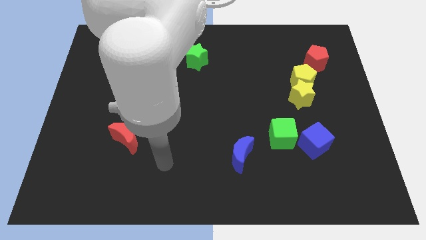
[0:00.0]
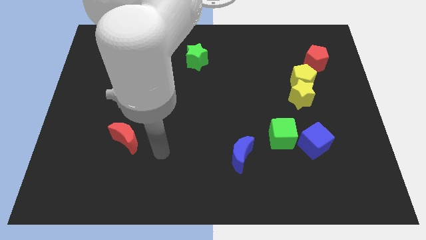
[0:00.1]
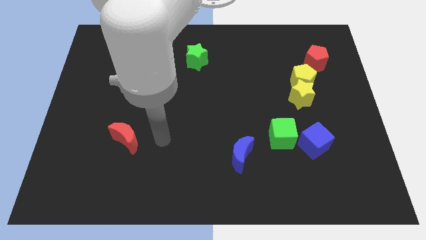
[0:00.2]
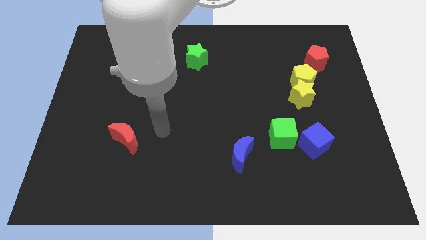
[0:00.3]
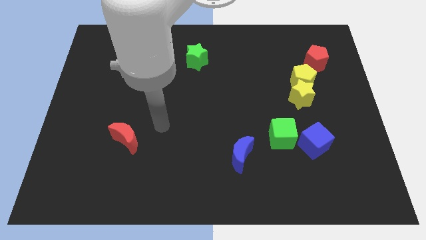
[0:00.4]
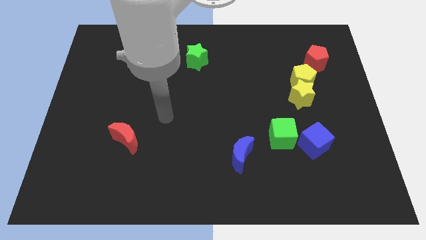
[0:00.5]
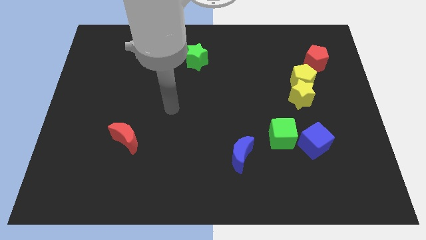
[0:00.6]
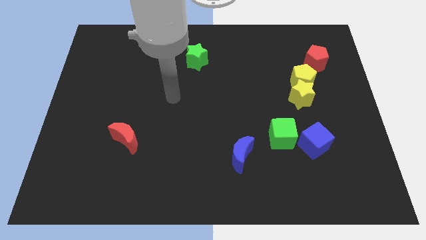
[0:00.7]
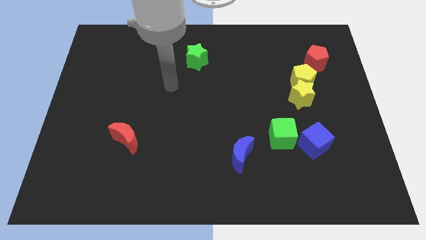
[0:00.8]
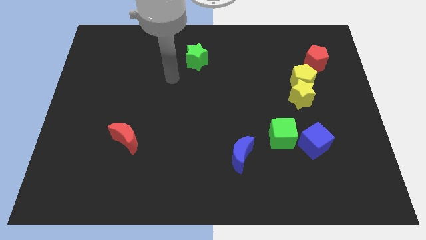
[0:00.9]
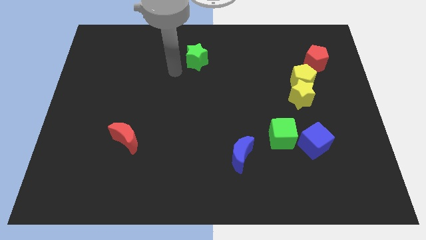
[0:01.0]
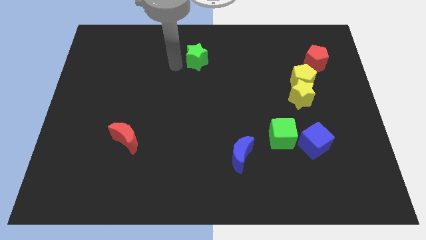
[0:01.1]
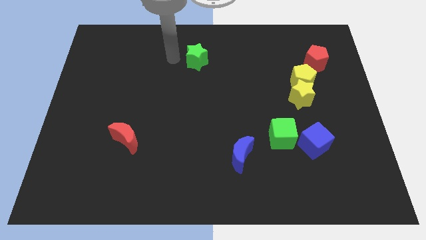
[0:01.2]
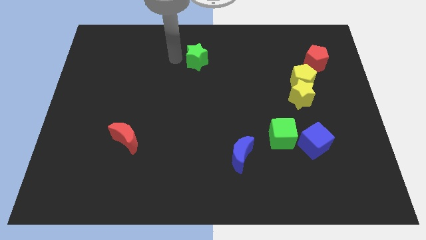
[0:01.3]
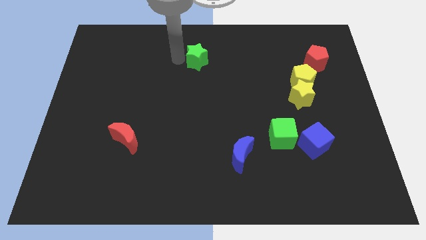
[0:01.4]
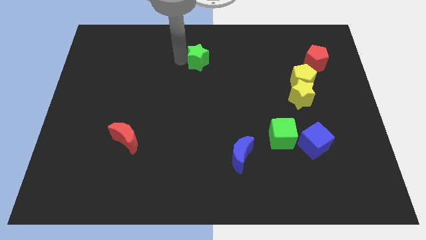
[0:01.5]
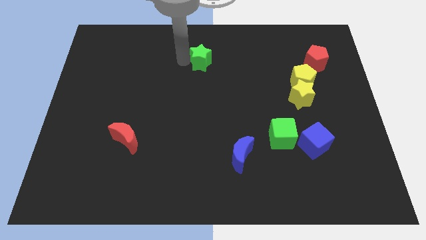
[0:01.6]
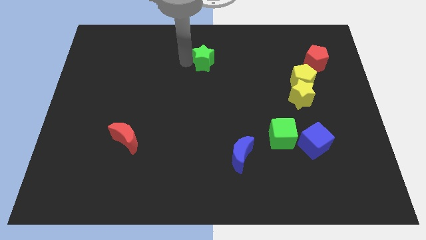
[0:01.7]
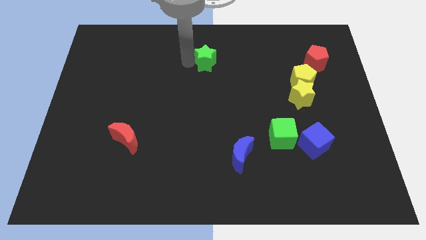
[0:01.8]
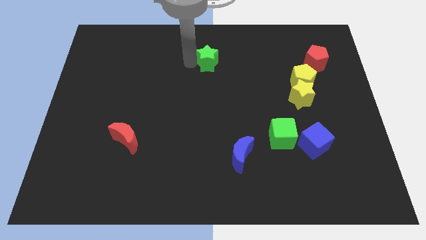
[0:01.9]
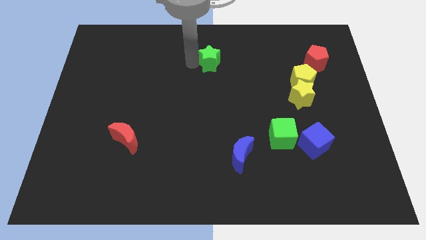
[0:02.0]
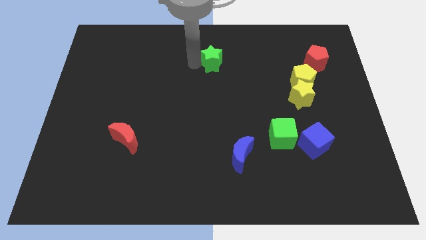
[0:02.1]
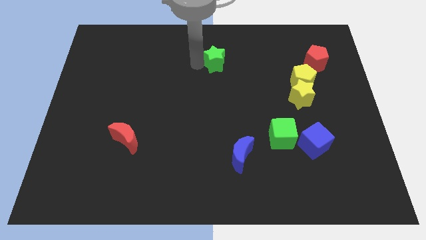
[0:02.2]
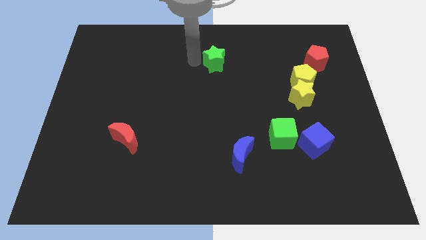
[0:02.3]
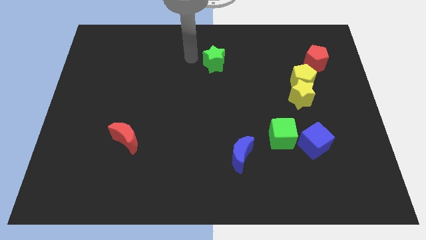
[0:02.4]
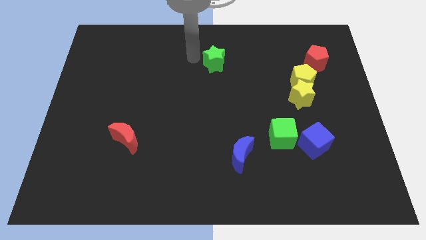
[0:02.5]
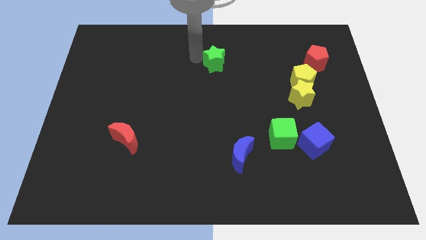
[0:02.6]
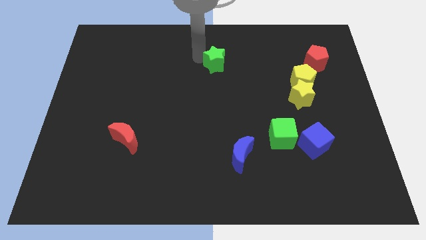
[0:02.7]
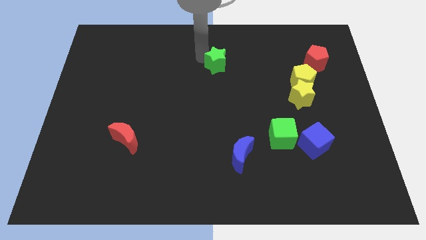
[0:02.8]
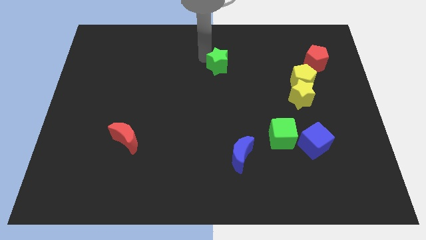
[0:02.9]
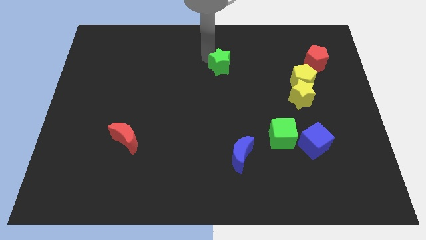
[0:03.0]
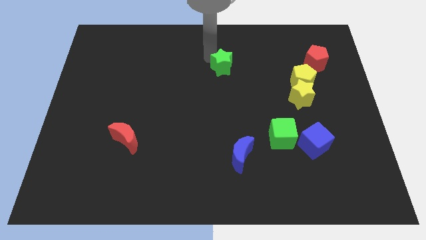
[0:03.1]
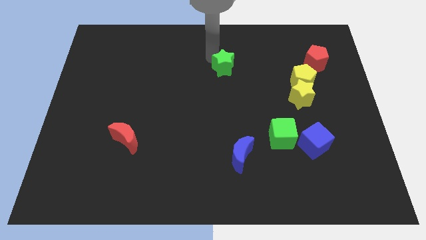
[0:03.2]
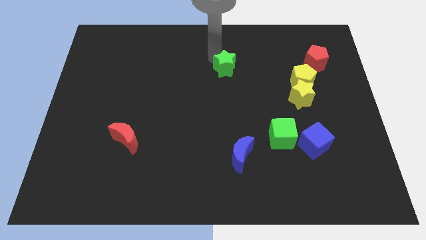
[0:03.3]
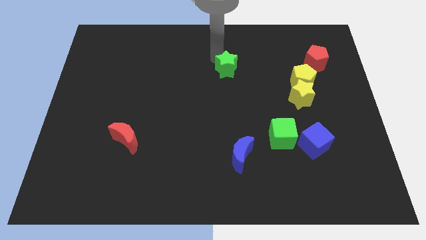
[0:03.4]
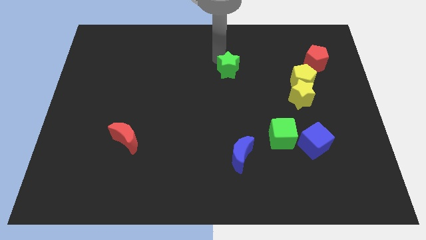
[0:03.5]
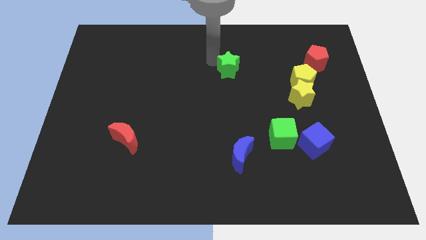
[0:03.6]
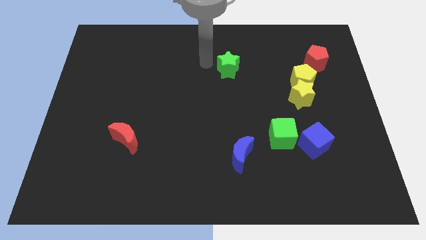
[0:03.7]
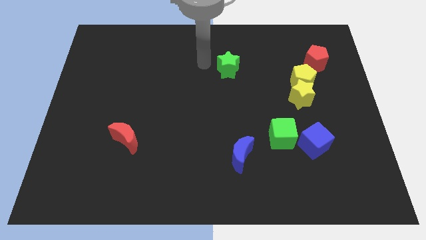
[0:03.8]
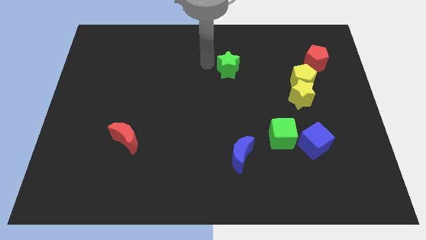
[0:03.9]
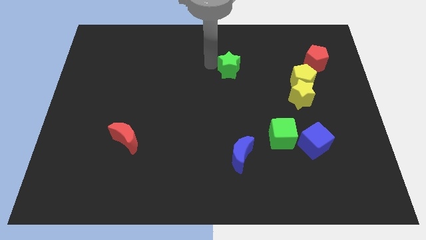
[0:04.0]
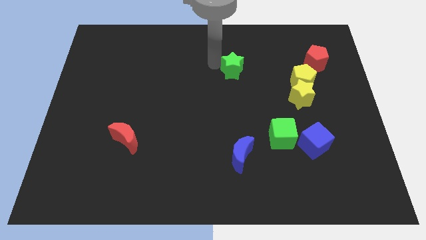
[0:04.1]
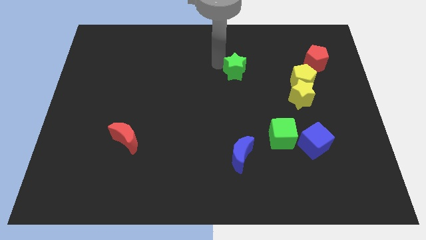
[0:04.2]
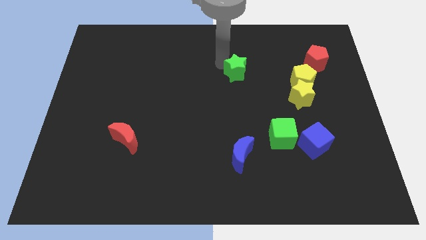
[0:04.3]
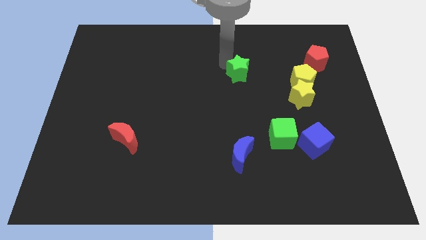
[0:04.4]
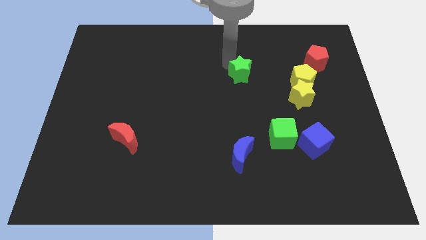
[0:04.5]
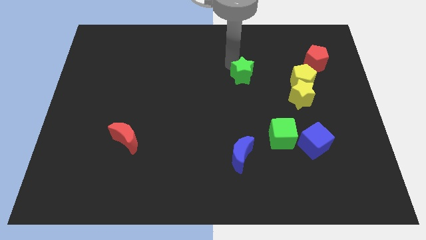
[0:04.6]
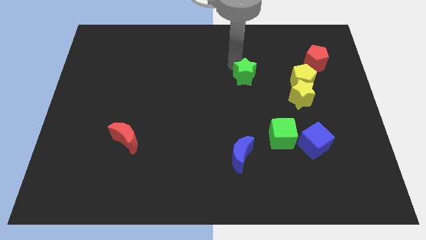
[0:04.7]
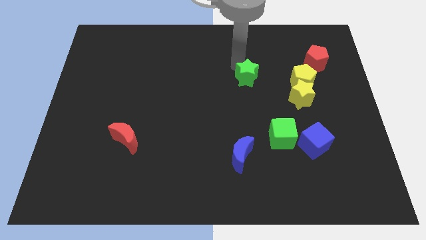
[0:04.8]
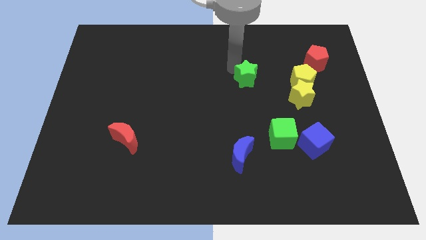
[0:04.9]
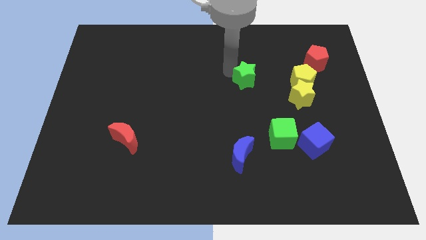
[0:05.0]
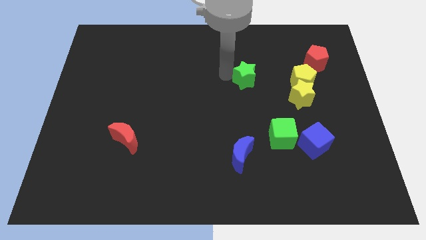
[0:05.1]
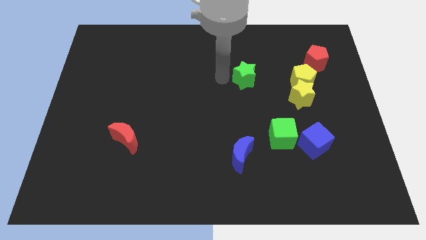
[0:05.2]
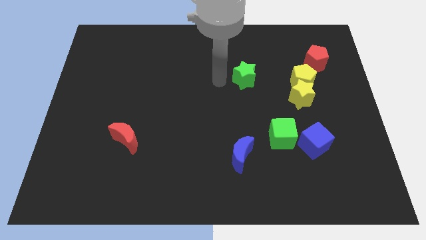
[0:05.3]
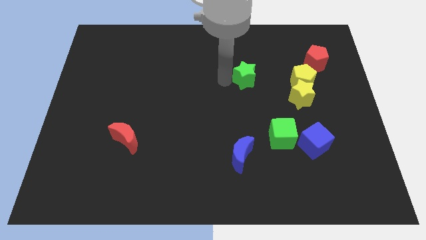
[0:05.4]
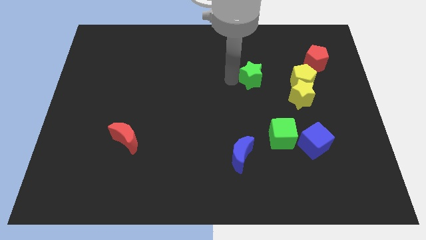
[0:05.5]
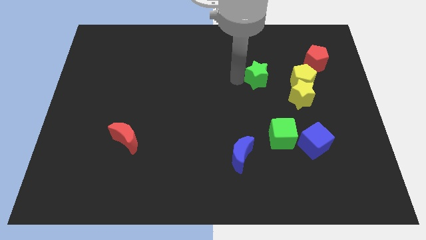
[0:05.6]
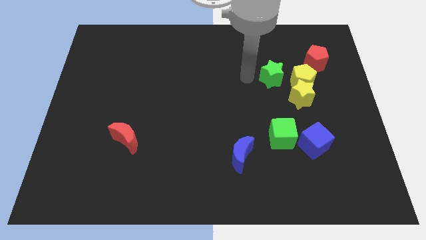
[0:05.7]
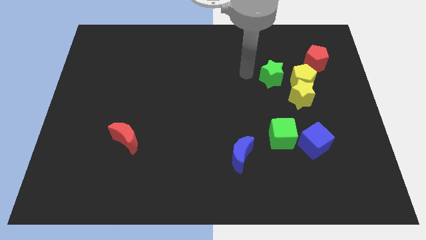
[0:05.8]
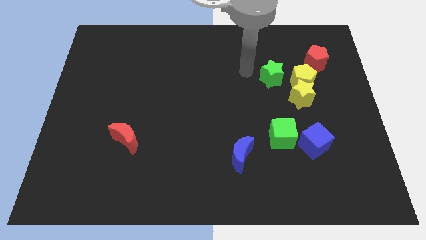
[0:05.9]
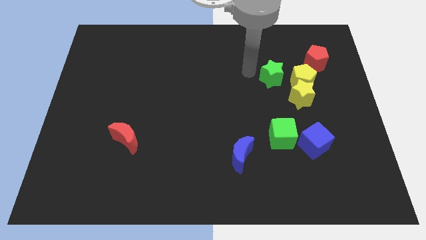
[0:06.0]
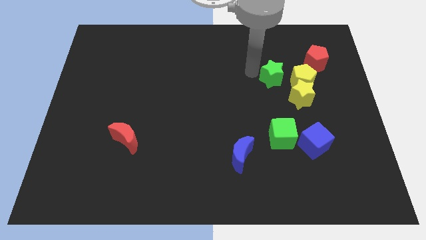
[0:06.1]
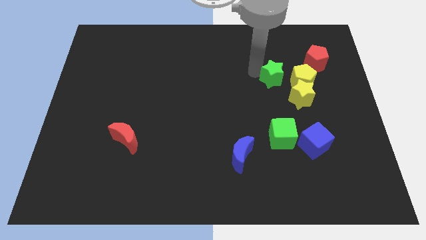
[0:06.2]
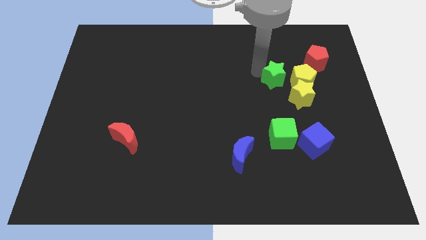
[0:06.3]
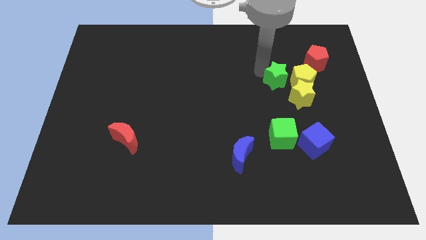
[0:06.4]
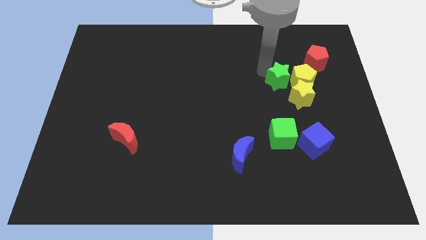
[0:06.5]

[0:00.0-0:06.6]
put the green star to the yellow pentagon
